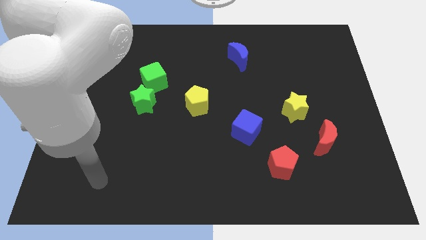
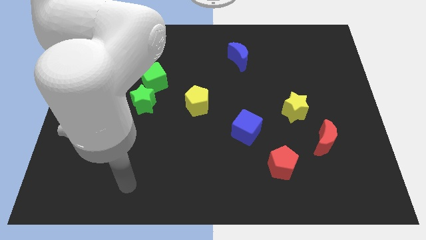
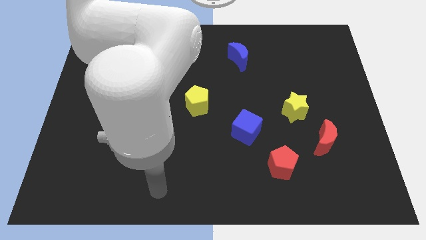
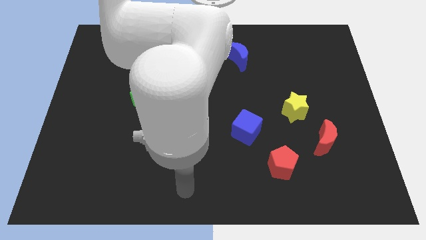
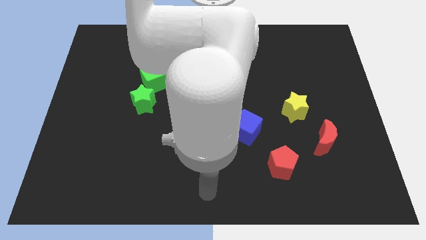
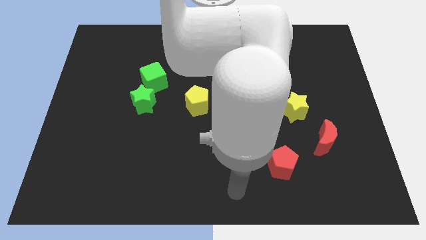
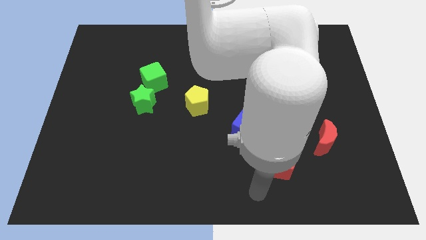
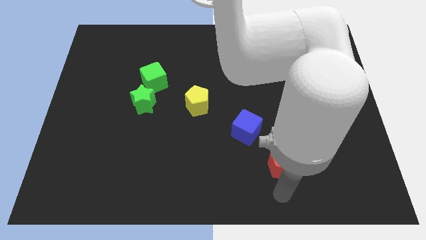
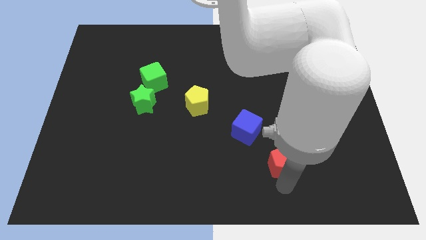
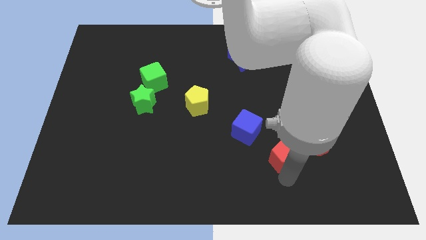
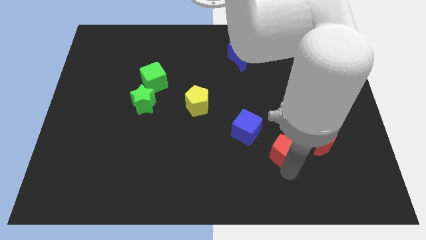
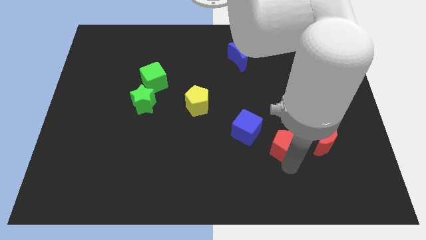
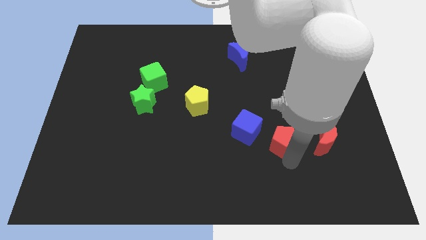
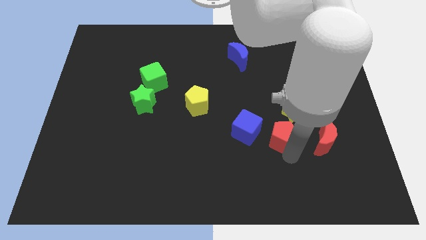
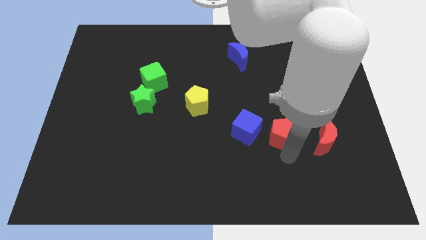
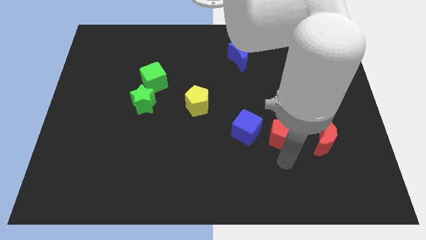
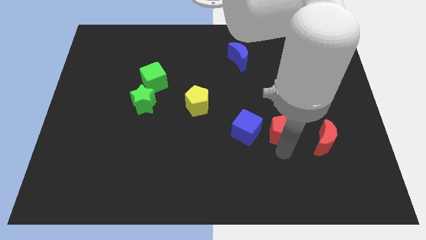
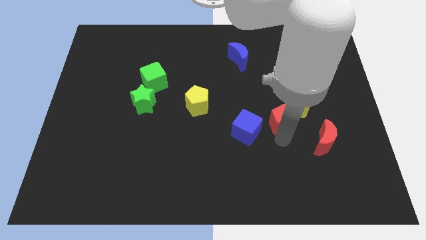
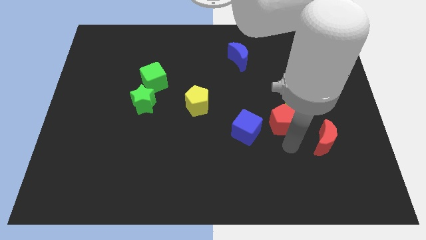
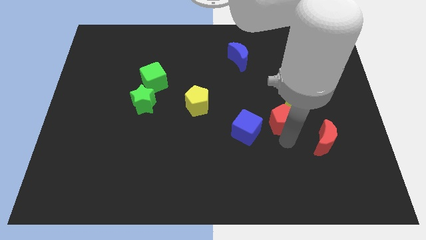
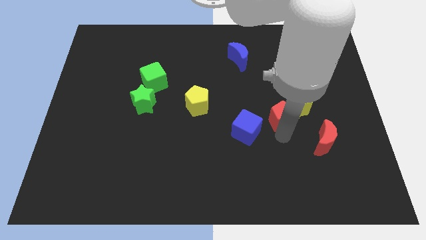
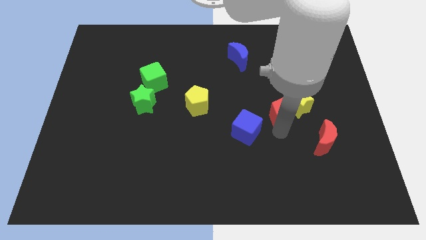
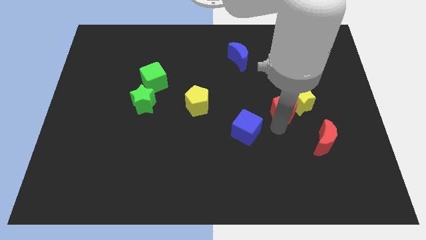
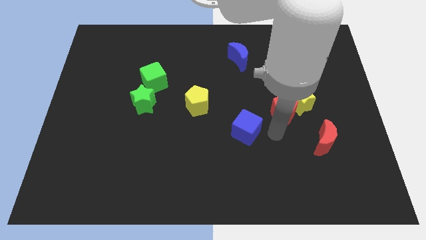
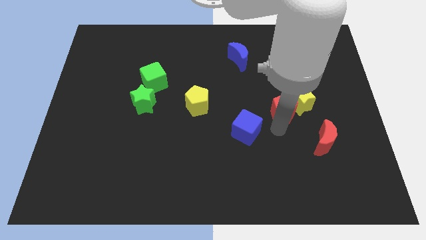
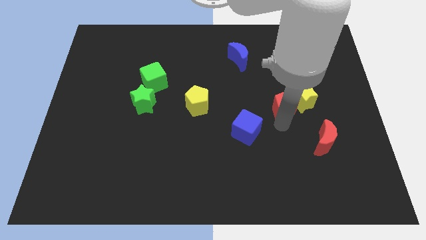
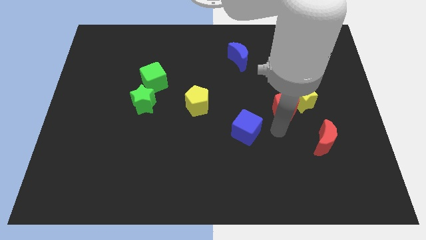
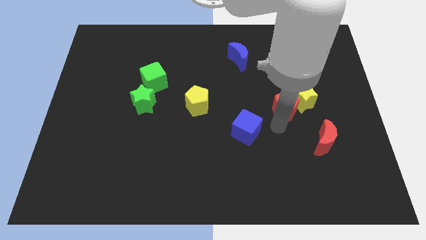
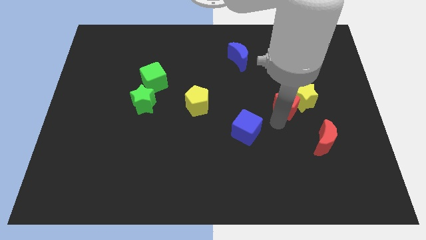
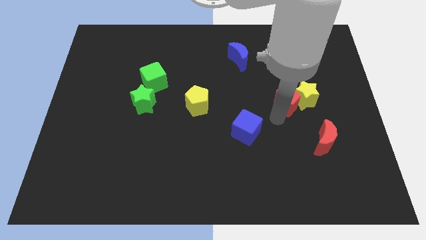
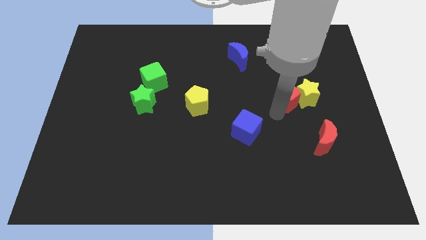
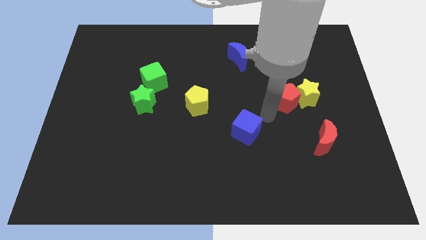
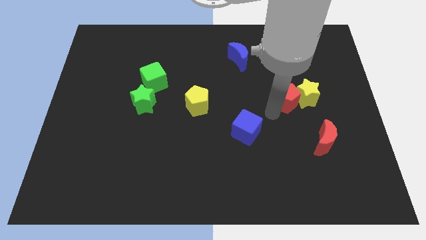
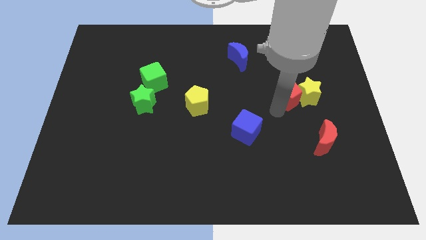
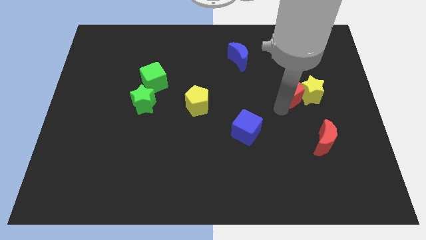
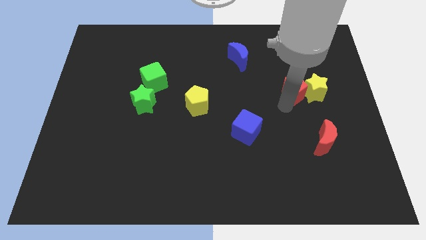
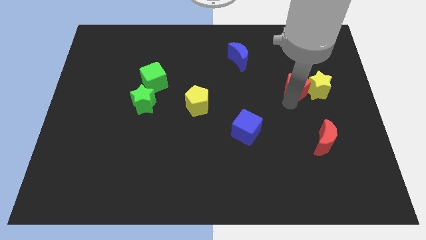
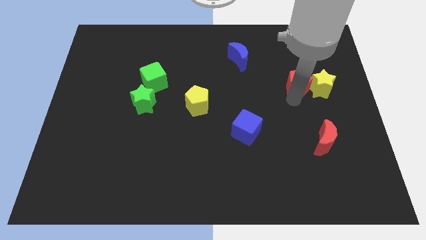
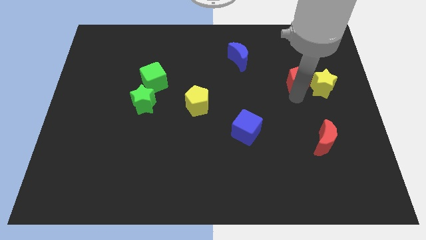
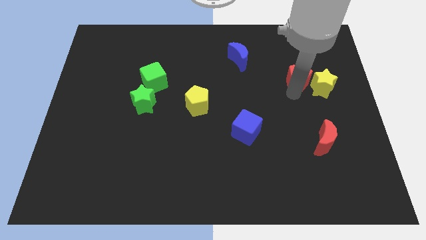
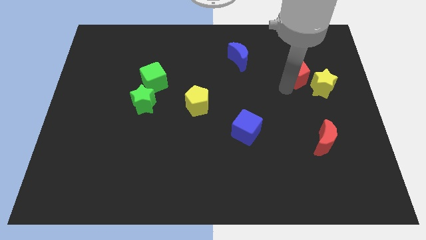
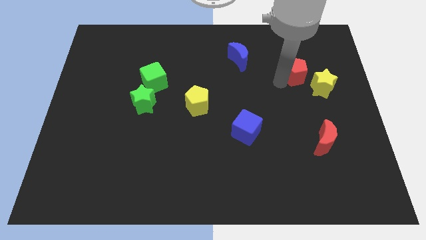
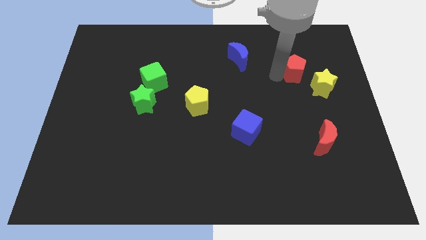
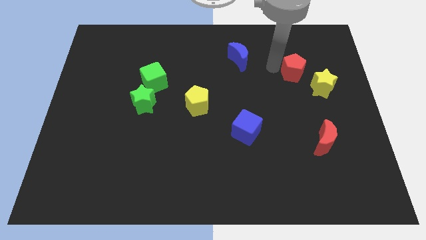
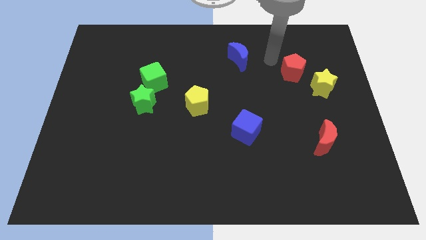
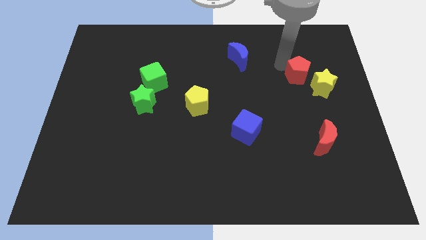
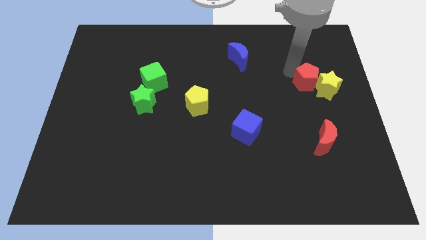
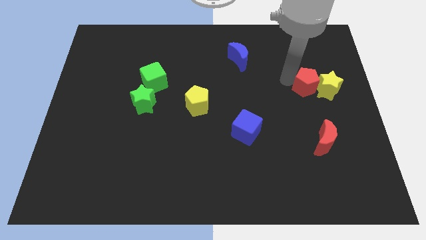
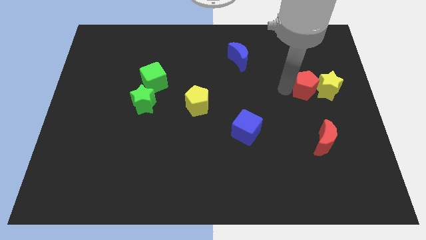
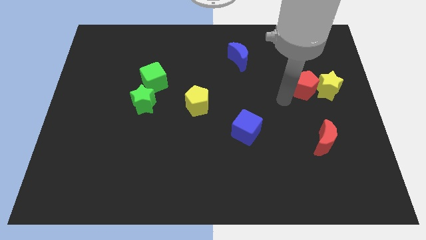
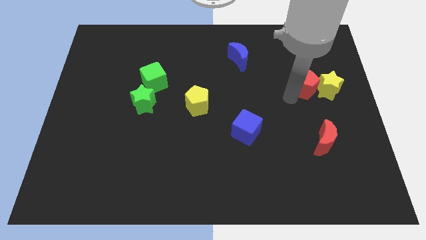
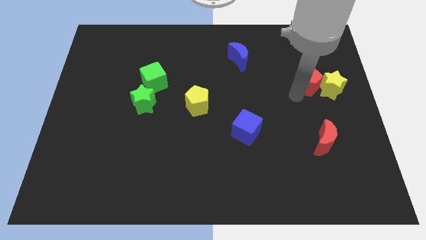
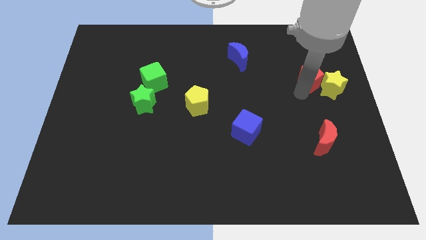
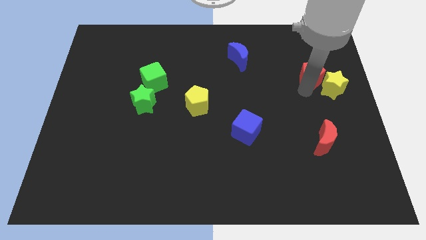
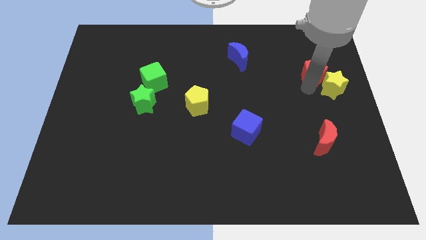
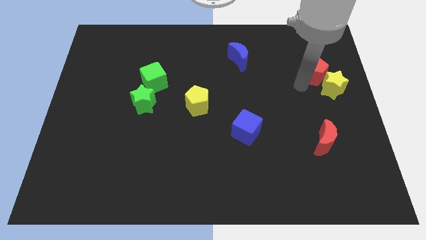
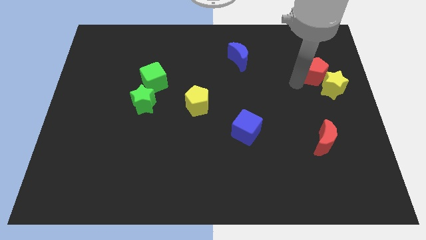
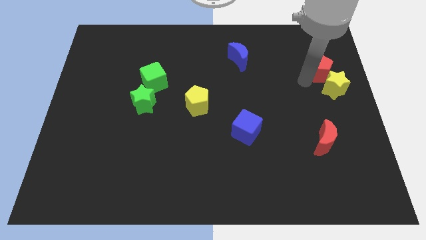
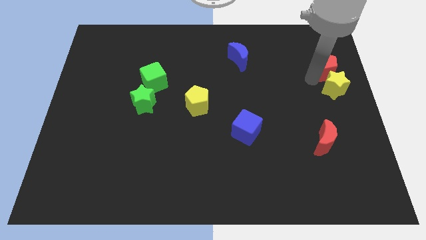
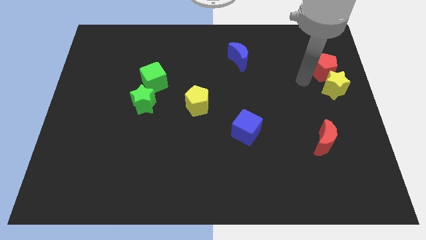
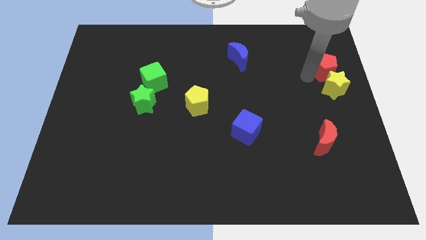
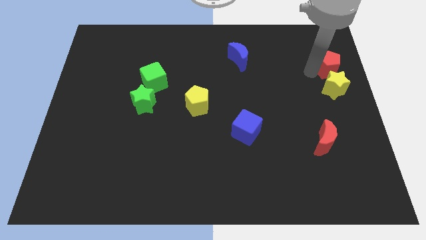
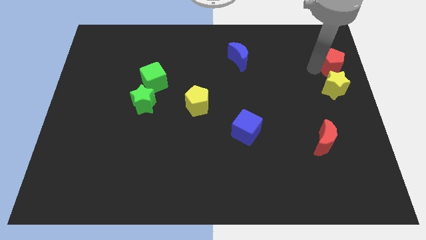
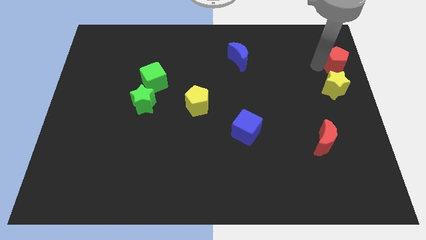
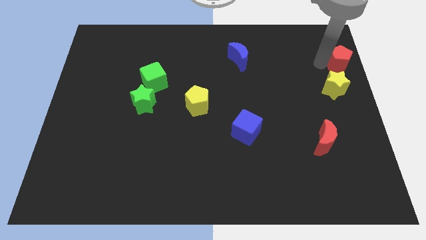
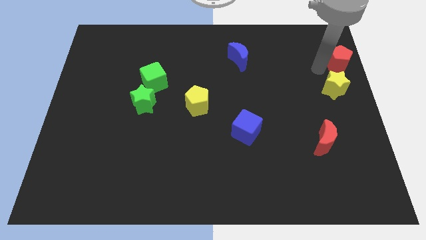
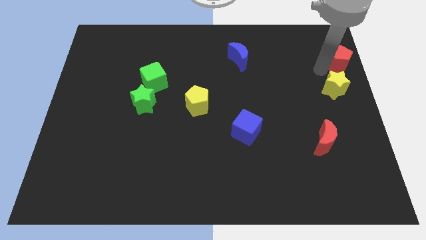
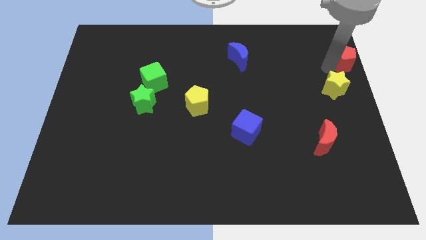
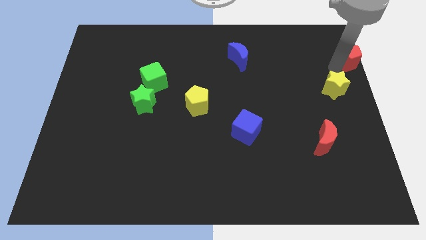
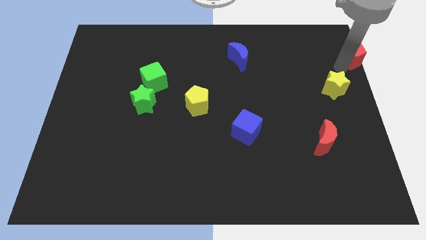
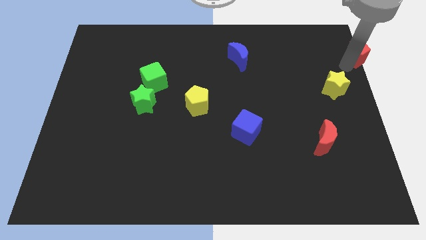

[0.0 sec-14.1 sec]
put the red pentagon to the upper right corner
